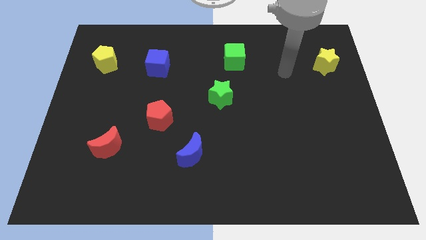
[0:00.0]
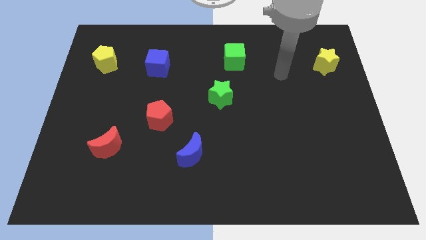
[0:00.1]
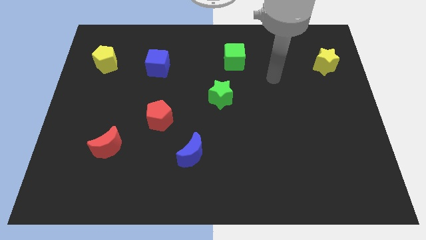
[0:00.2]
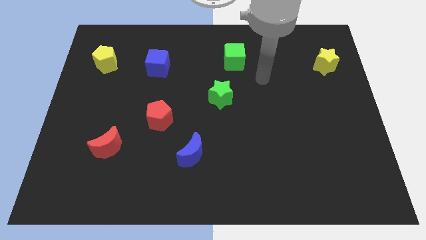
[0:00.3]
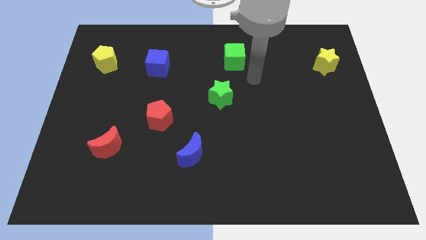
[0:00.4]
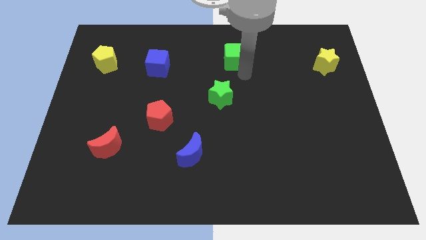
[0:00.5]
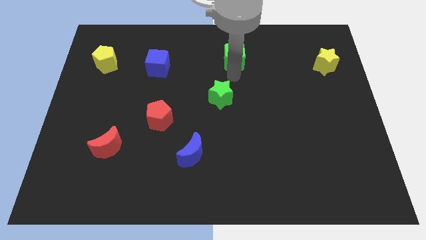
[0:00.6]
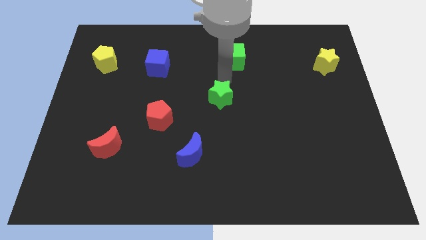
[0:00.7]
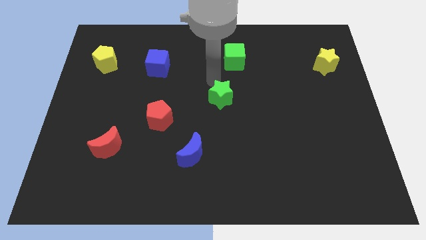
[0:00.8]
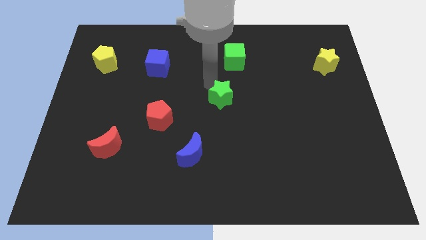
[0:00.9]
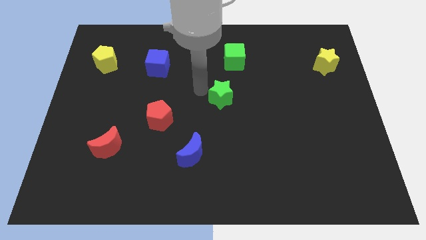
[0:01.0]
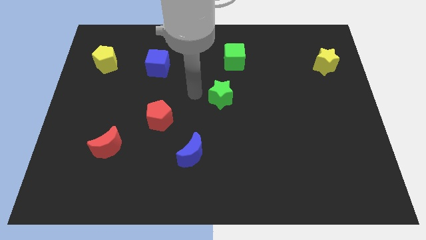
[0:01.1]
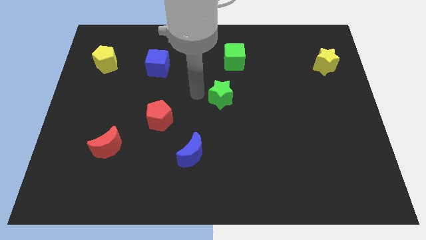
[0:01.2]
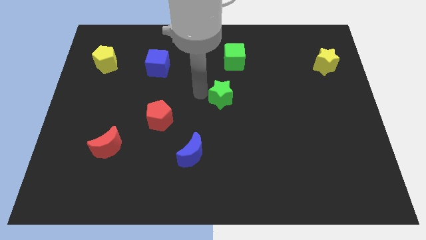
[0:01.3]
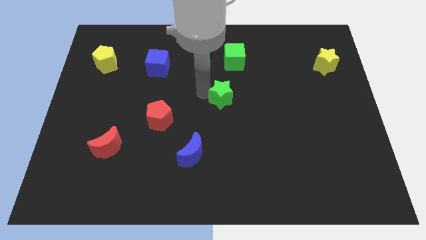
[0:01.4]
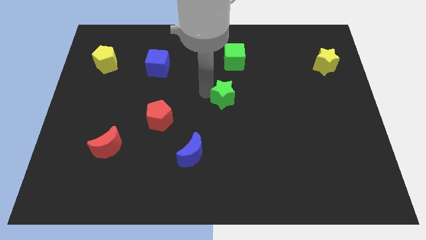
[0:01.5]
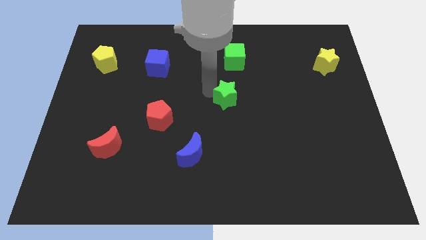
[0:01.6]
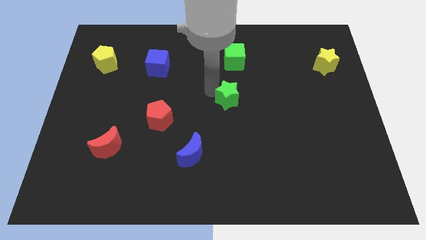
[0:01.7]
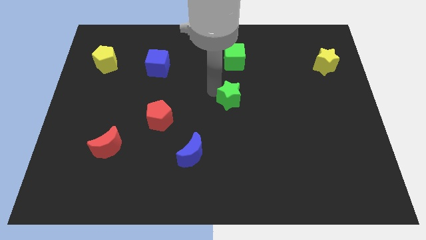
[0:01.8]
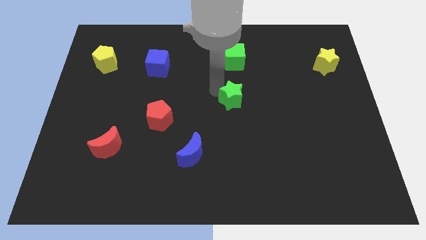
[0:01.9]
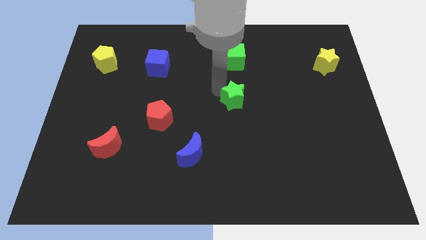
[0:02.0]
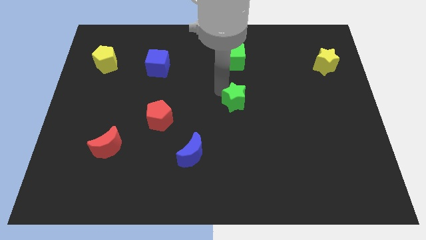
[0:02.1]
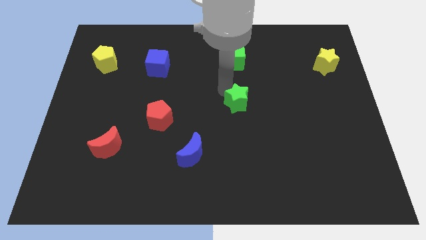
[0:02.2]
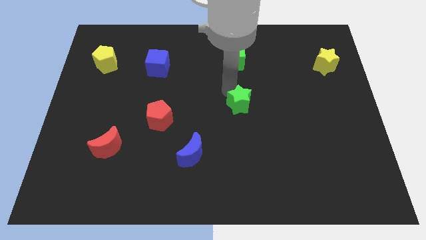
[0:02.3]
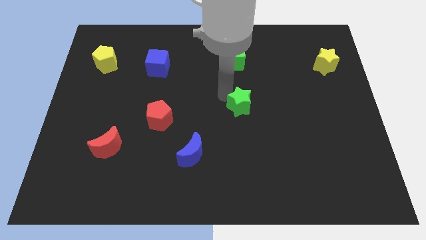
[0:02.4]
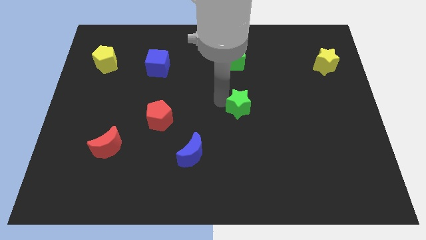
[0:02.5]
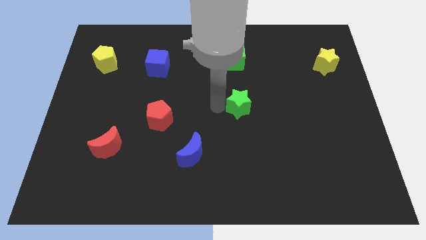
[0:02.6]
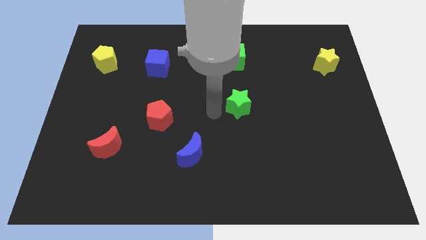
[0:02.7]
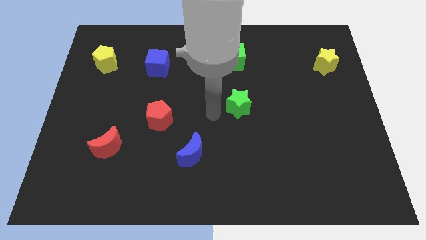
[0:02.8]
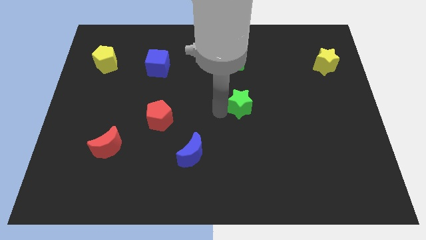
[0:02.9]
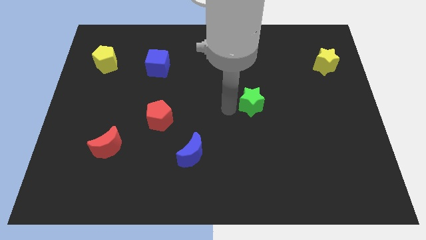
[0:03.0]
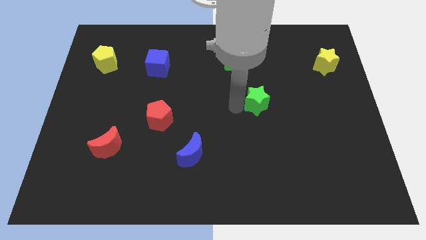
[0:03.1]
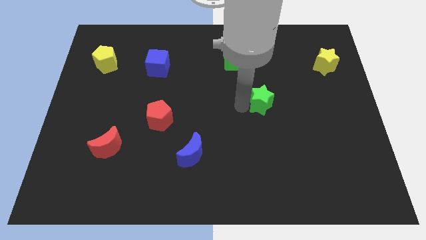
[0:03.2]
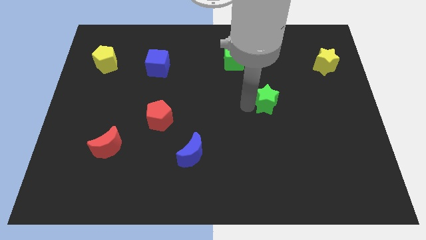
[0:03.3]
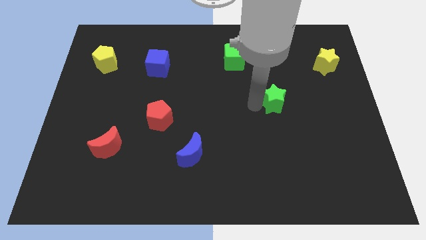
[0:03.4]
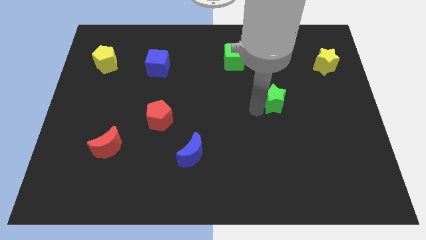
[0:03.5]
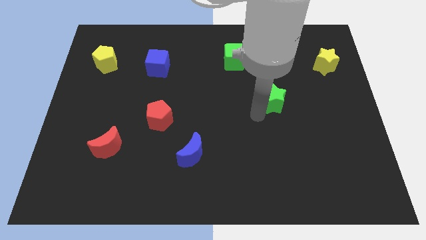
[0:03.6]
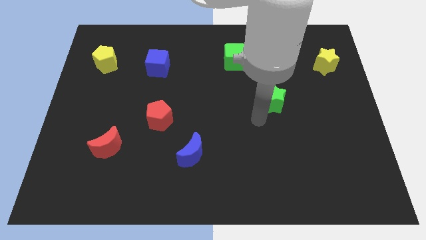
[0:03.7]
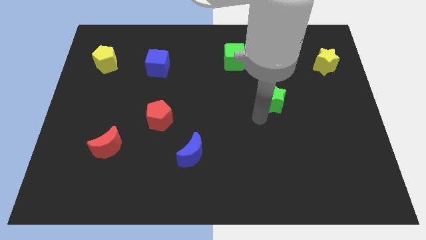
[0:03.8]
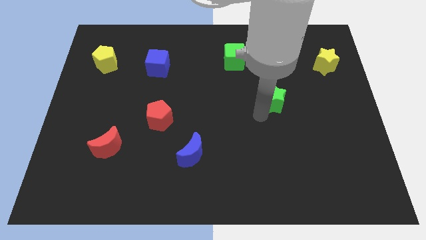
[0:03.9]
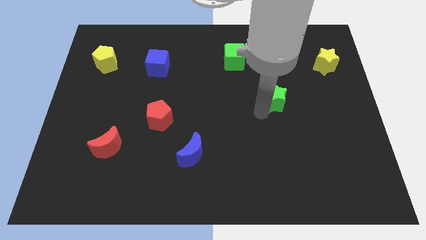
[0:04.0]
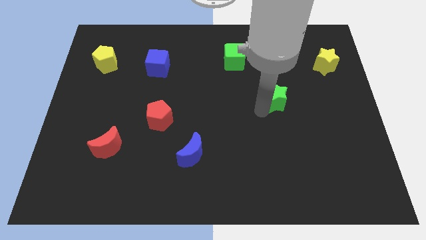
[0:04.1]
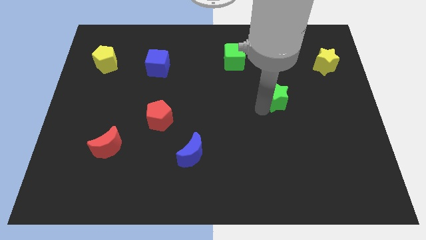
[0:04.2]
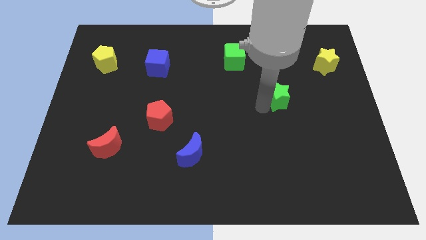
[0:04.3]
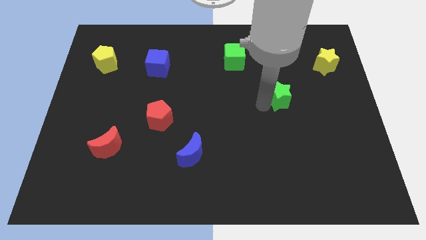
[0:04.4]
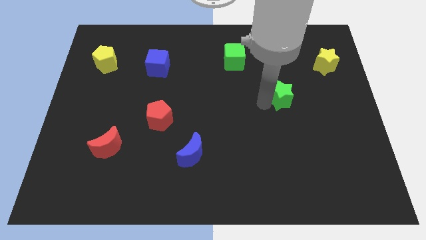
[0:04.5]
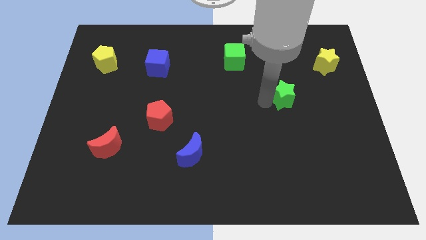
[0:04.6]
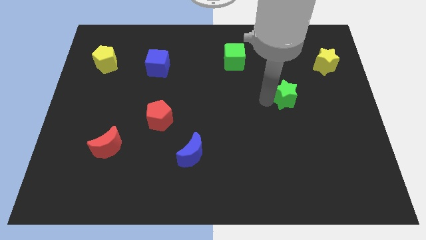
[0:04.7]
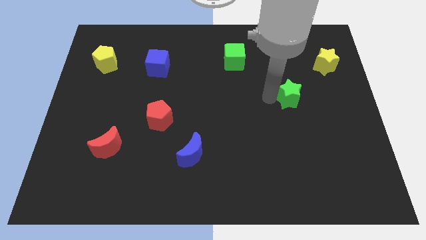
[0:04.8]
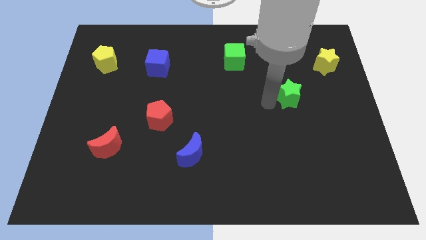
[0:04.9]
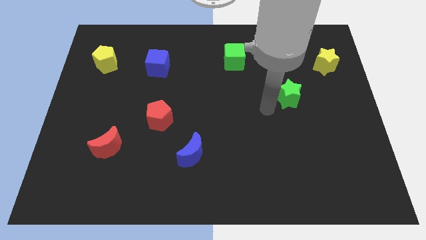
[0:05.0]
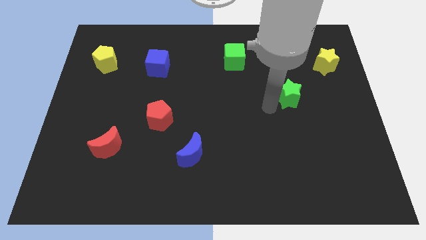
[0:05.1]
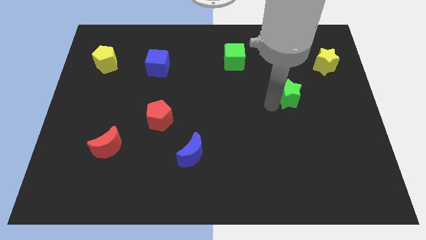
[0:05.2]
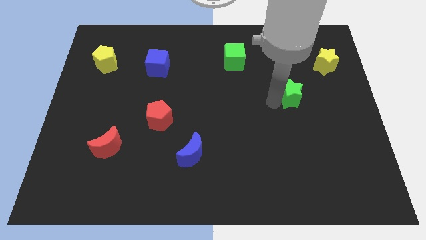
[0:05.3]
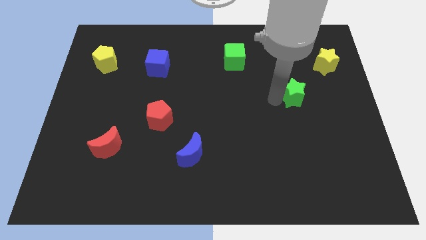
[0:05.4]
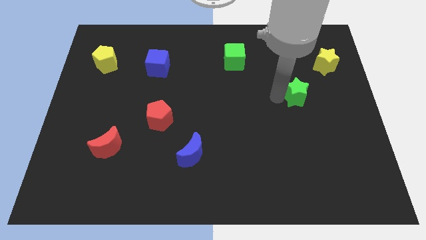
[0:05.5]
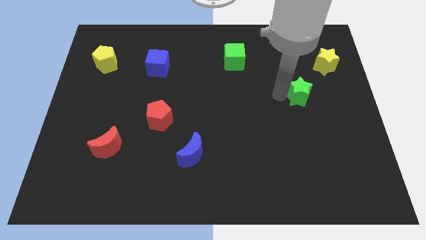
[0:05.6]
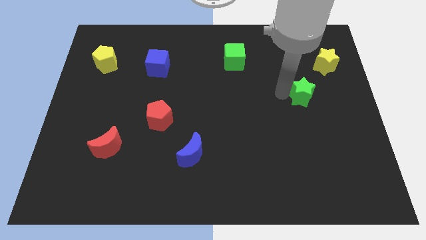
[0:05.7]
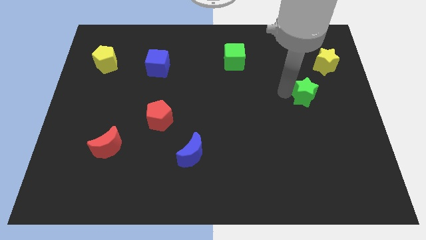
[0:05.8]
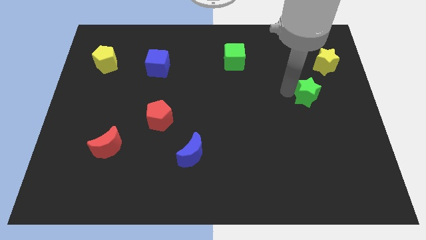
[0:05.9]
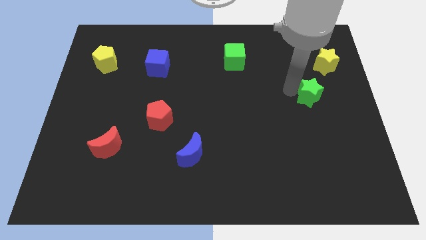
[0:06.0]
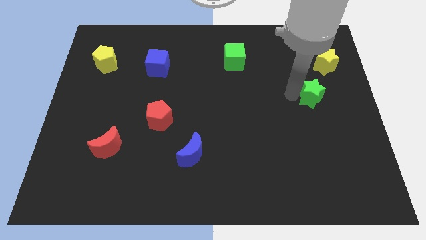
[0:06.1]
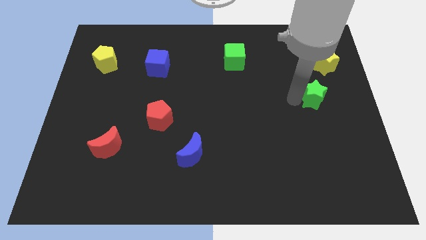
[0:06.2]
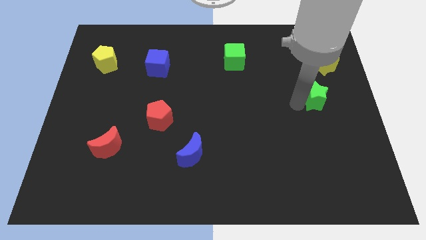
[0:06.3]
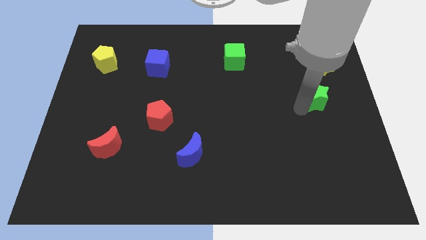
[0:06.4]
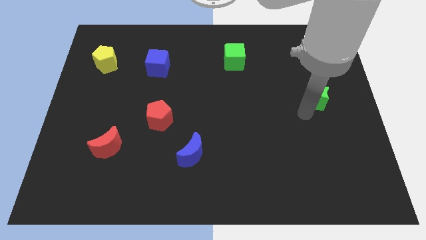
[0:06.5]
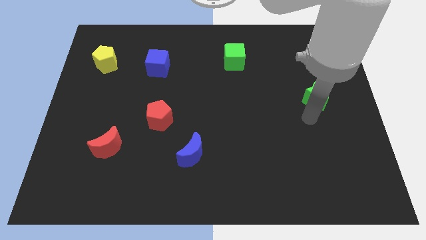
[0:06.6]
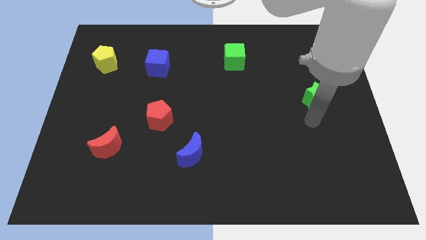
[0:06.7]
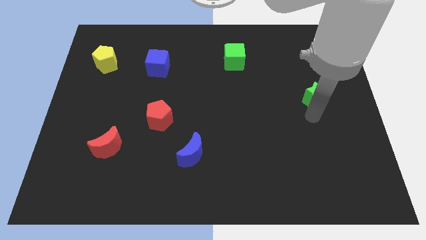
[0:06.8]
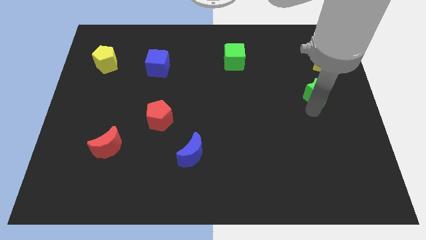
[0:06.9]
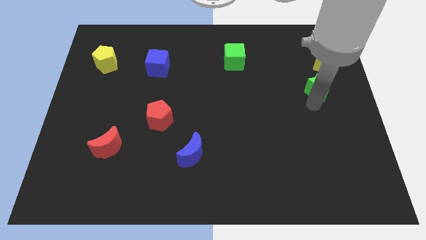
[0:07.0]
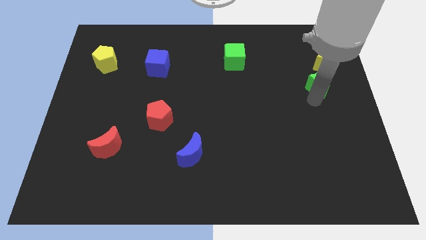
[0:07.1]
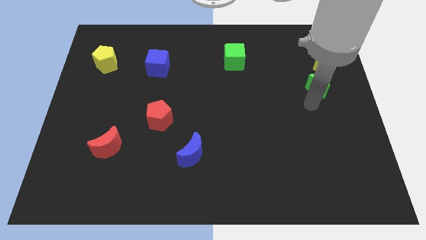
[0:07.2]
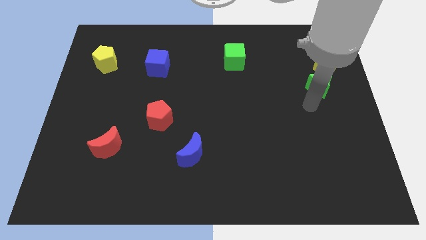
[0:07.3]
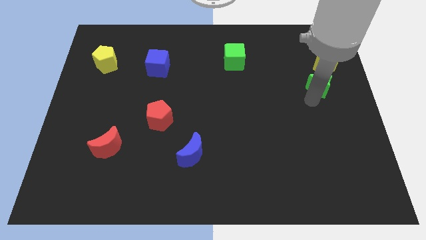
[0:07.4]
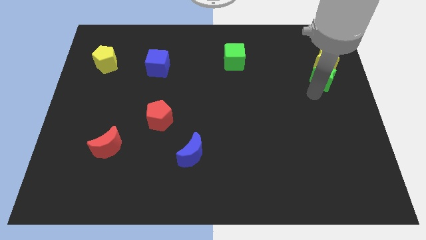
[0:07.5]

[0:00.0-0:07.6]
slide the green star next to the yellow star

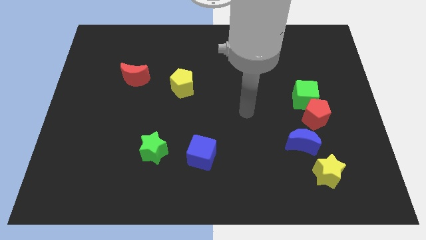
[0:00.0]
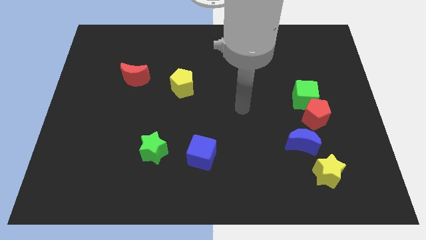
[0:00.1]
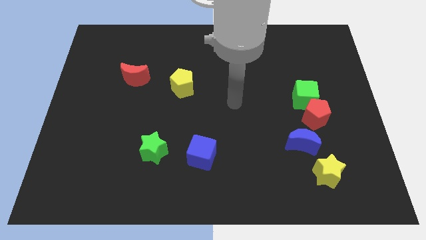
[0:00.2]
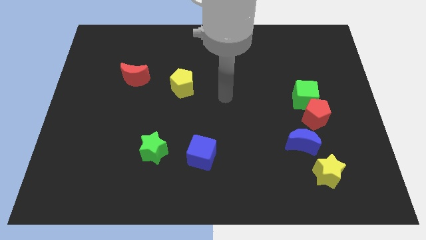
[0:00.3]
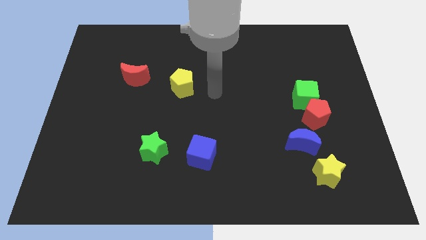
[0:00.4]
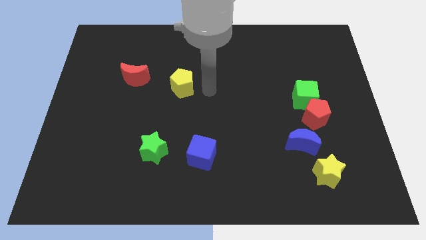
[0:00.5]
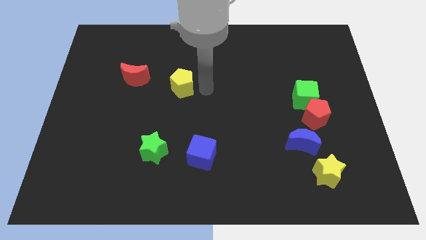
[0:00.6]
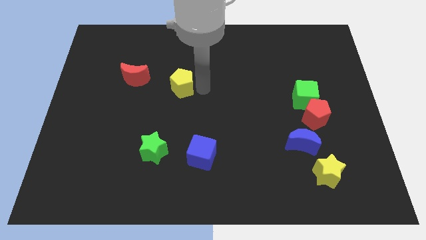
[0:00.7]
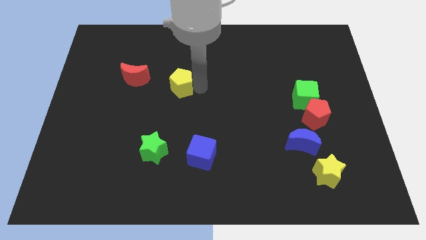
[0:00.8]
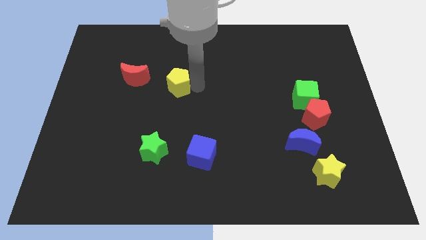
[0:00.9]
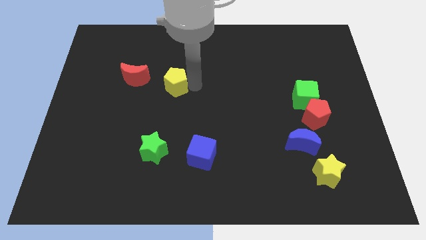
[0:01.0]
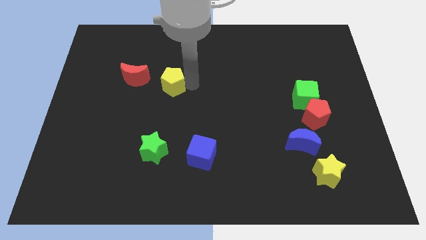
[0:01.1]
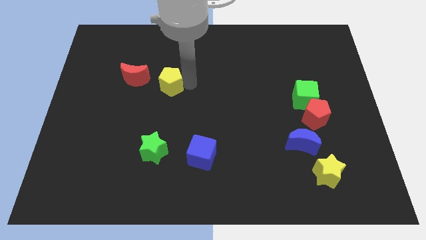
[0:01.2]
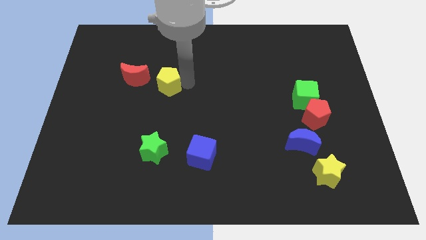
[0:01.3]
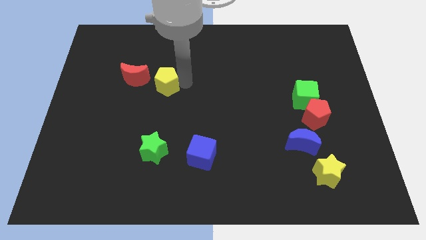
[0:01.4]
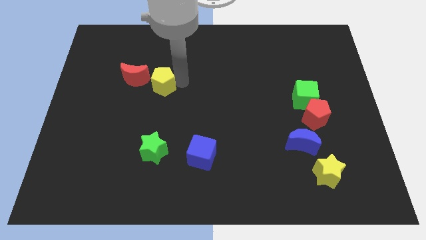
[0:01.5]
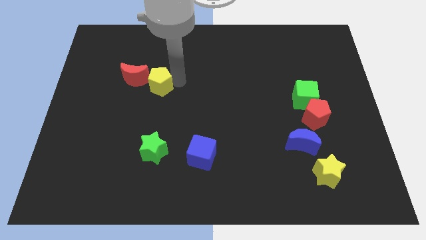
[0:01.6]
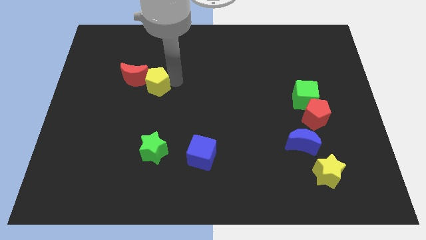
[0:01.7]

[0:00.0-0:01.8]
push the yellow pentagon towards the red moon
